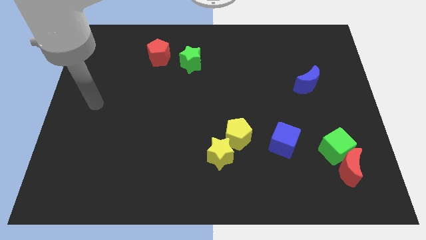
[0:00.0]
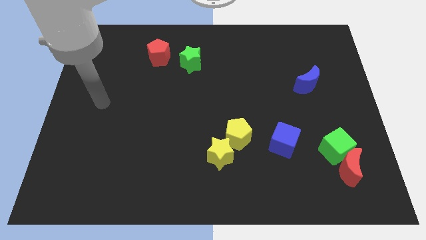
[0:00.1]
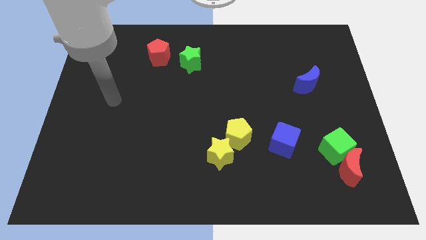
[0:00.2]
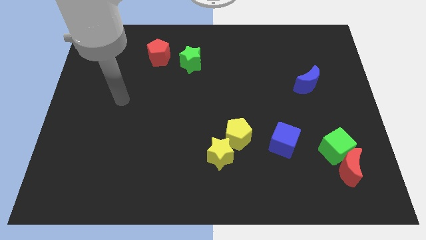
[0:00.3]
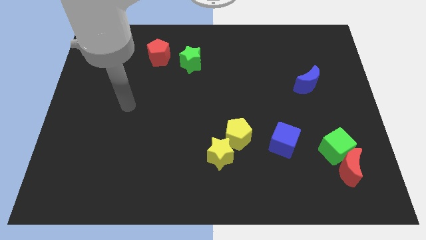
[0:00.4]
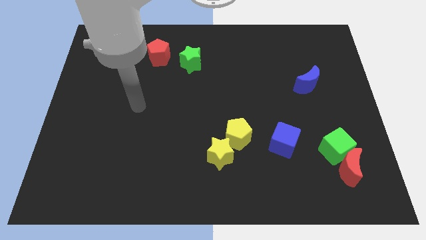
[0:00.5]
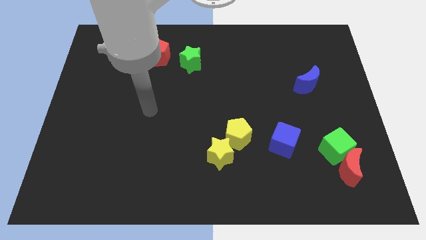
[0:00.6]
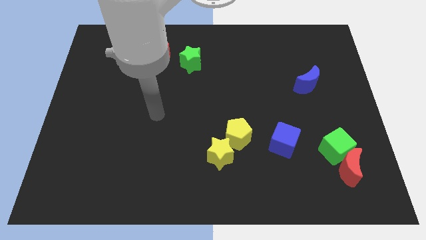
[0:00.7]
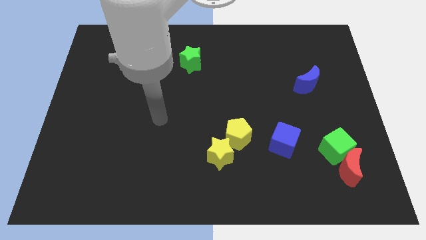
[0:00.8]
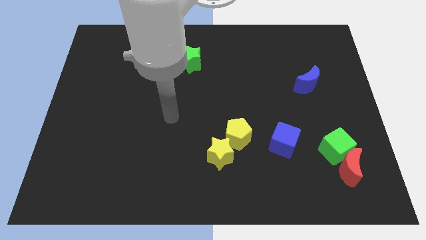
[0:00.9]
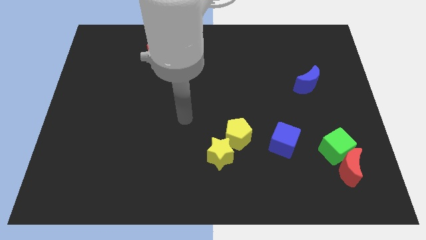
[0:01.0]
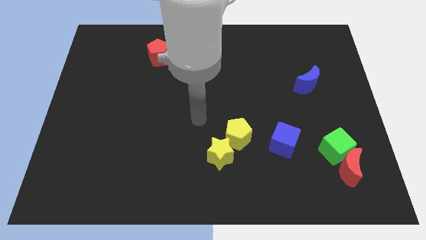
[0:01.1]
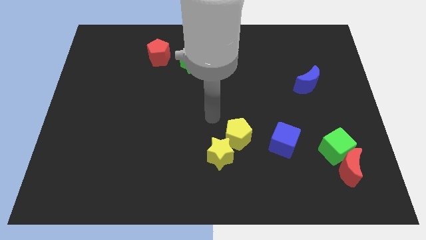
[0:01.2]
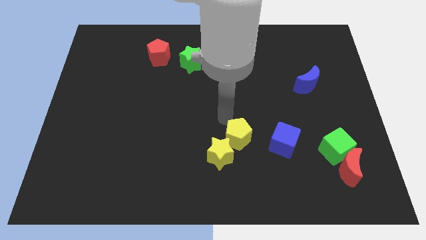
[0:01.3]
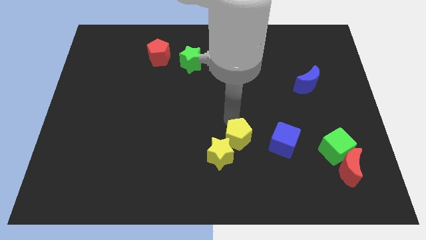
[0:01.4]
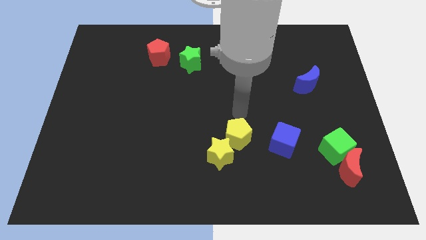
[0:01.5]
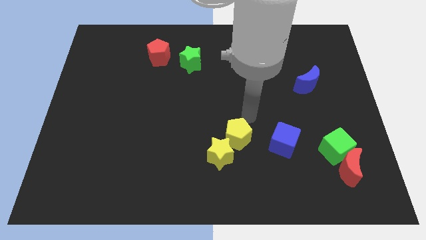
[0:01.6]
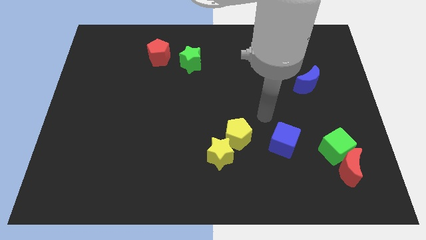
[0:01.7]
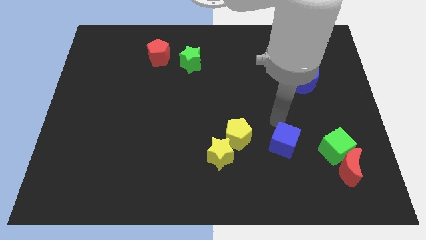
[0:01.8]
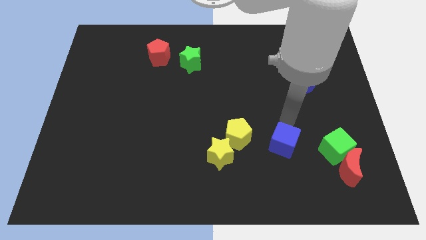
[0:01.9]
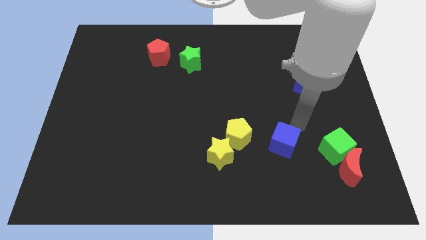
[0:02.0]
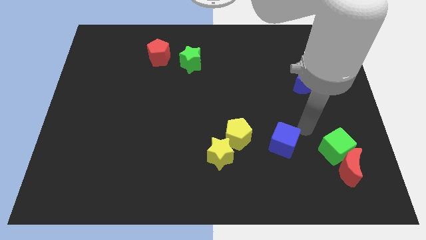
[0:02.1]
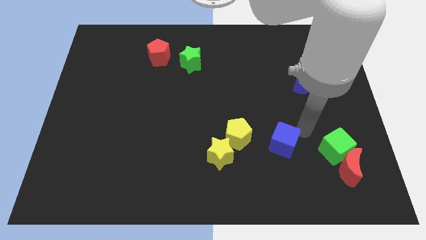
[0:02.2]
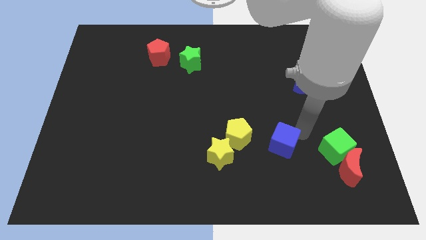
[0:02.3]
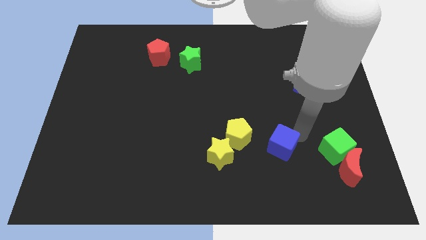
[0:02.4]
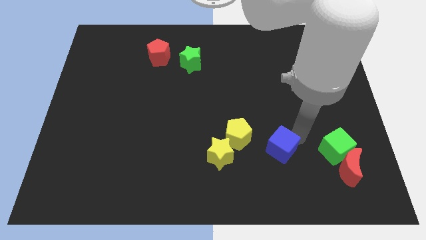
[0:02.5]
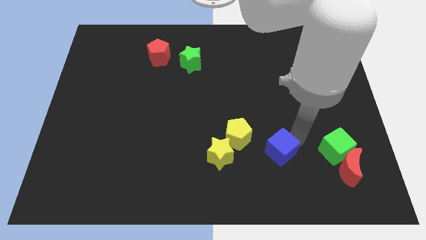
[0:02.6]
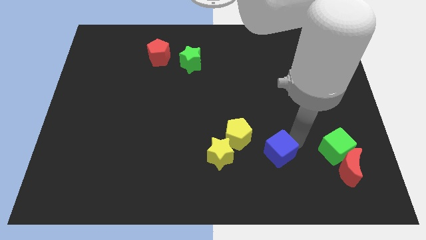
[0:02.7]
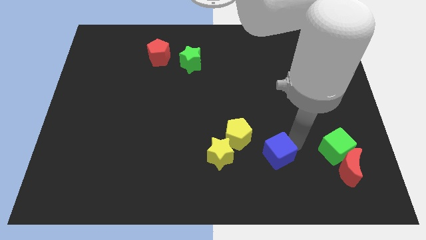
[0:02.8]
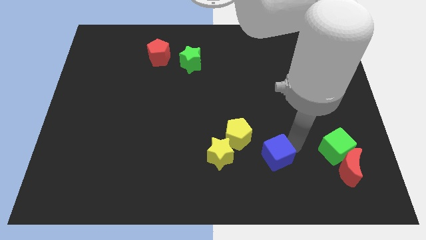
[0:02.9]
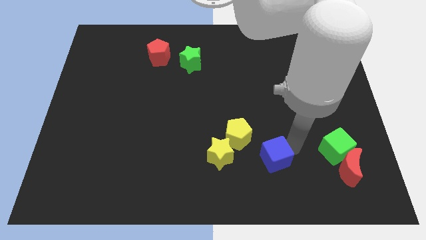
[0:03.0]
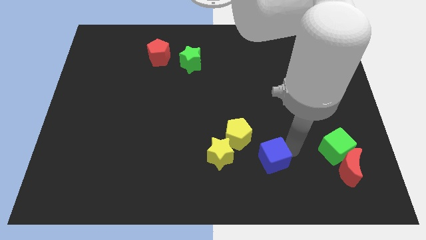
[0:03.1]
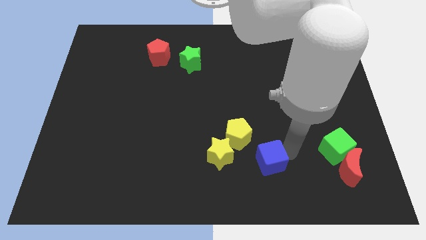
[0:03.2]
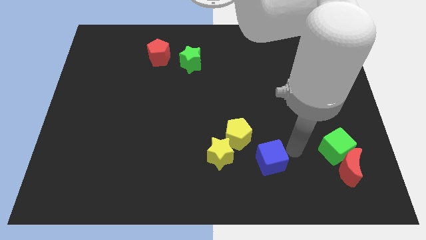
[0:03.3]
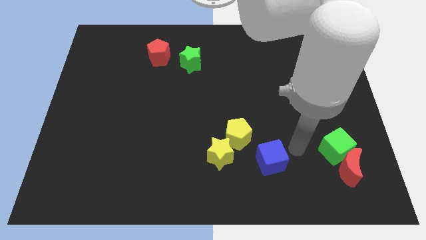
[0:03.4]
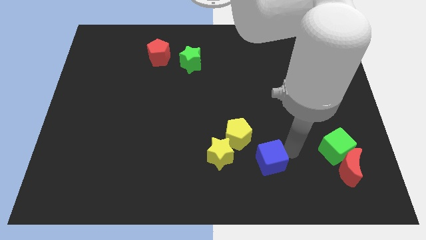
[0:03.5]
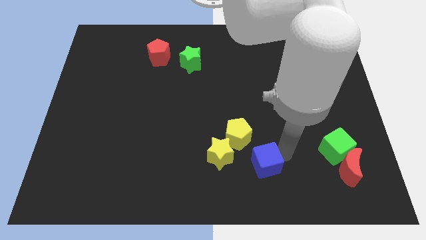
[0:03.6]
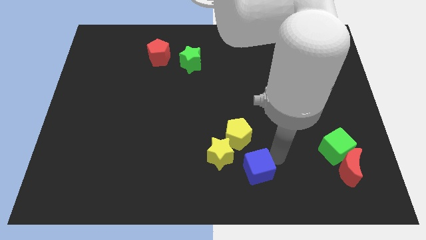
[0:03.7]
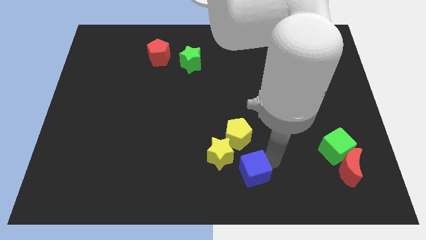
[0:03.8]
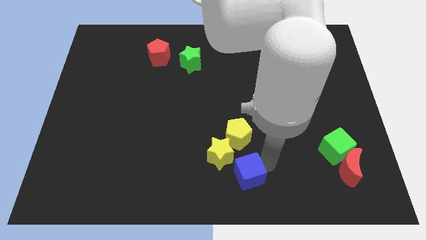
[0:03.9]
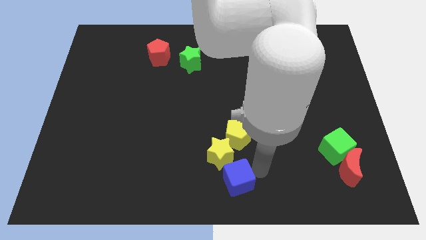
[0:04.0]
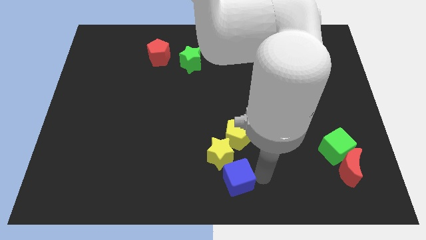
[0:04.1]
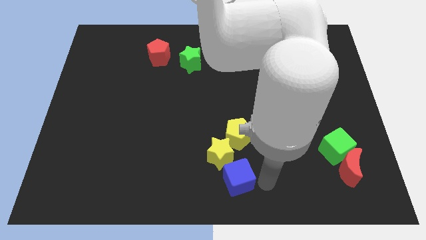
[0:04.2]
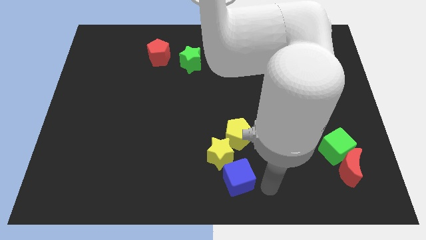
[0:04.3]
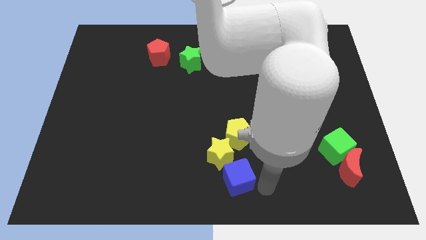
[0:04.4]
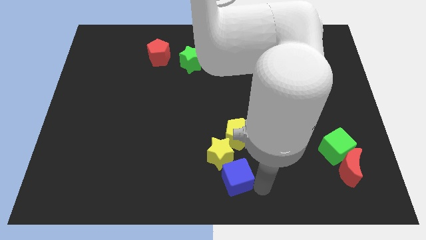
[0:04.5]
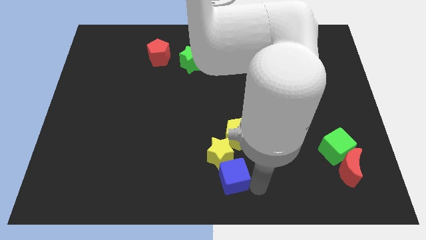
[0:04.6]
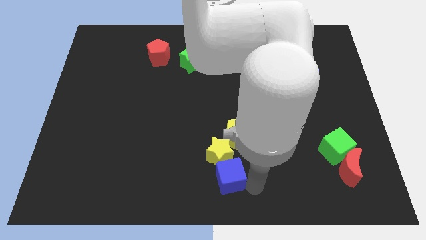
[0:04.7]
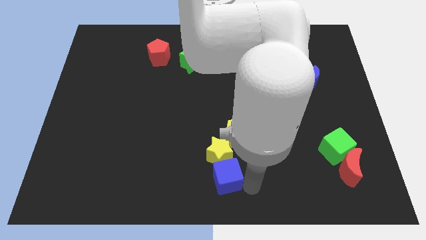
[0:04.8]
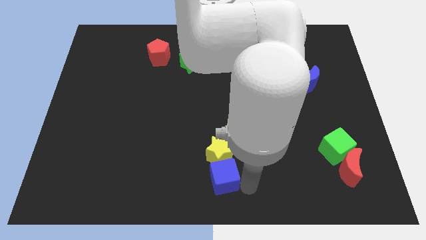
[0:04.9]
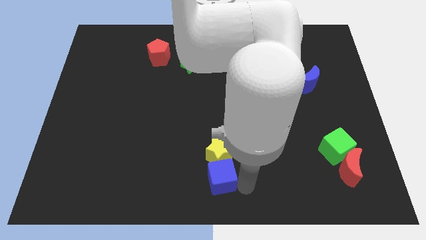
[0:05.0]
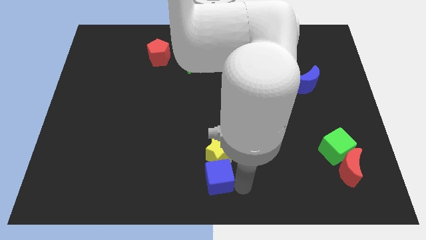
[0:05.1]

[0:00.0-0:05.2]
put the blue cube diagonally down and to the left of the yellow pentagon

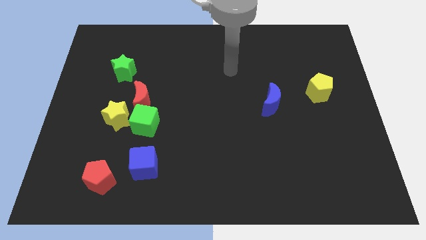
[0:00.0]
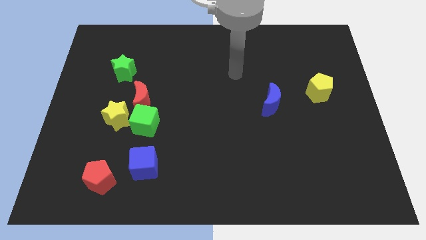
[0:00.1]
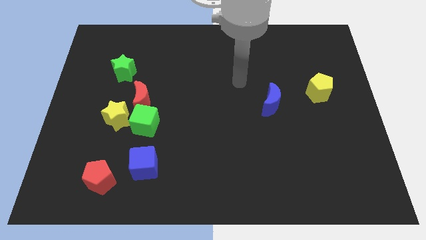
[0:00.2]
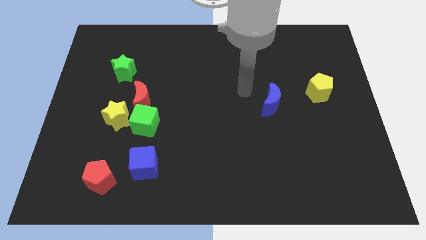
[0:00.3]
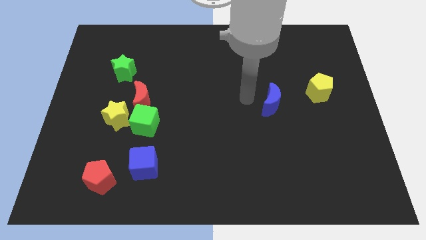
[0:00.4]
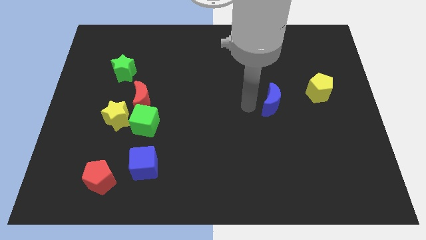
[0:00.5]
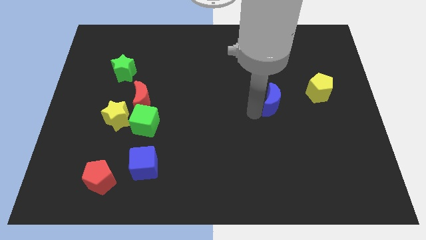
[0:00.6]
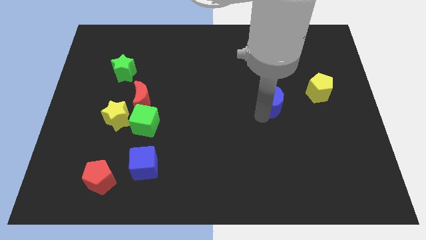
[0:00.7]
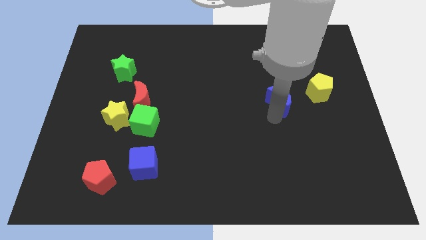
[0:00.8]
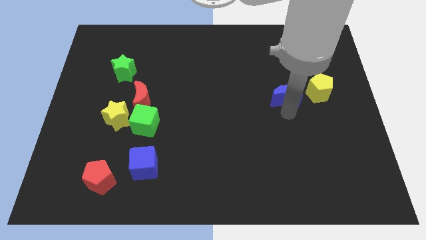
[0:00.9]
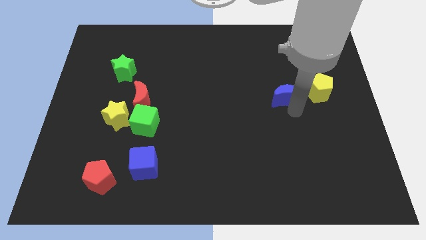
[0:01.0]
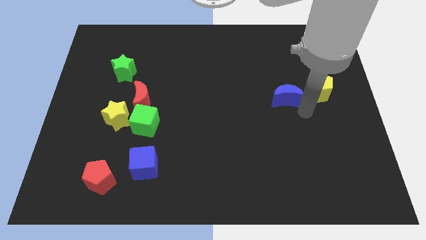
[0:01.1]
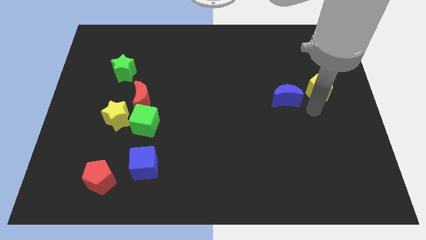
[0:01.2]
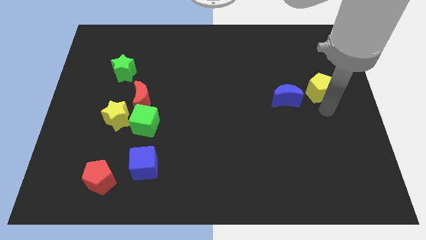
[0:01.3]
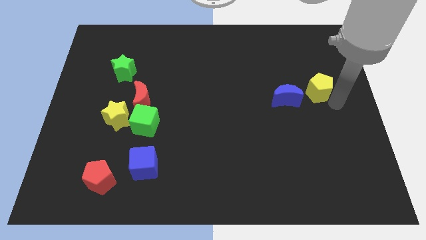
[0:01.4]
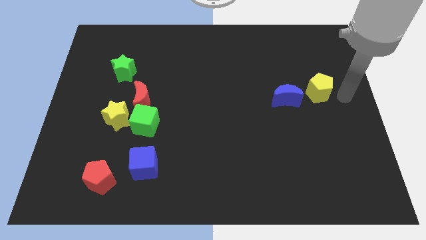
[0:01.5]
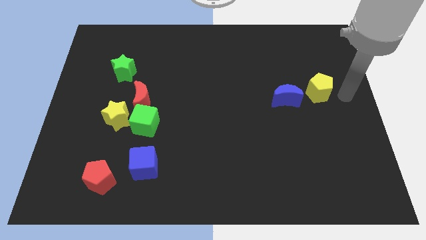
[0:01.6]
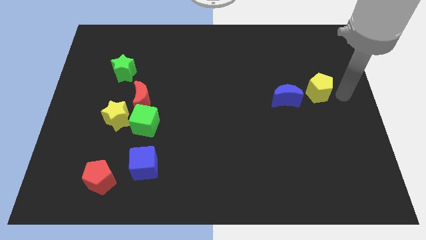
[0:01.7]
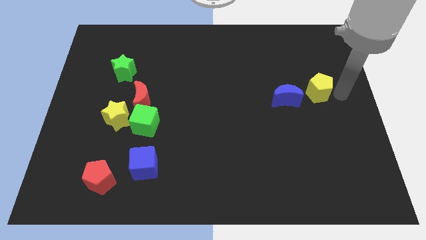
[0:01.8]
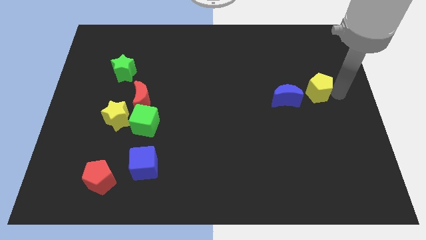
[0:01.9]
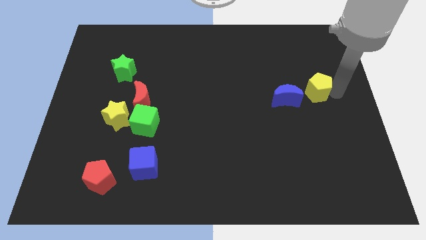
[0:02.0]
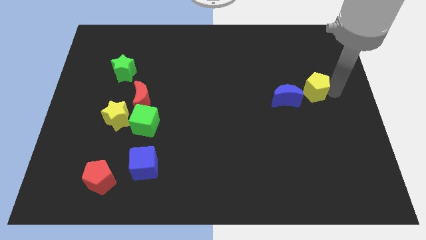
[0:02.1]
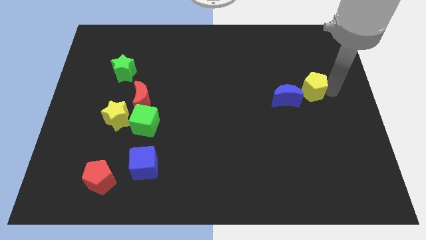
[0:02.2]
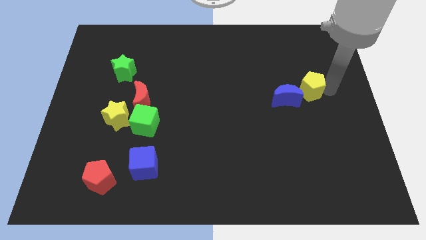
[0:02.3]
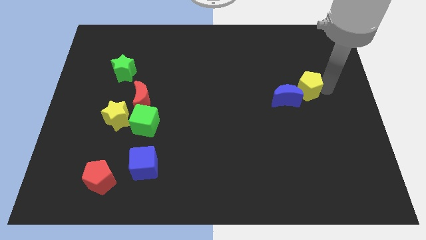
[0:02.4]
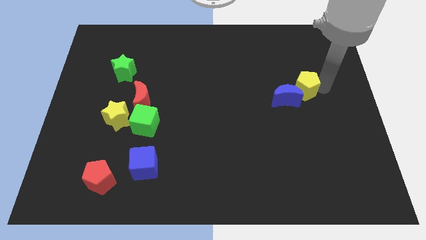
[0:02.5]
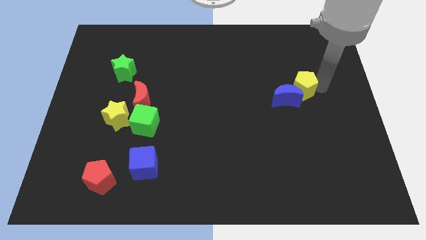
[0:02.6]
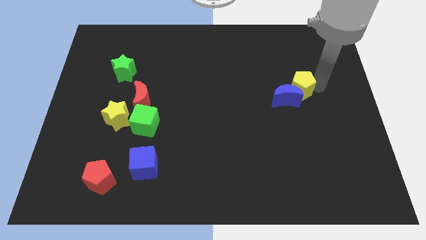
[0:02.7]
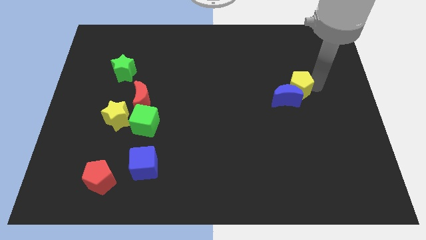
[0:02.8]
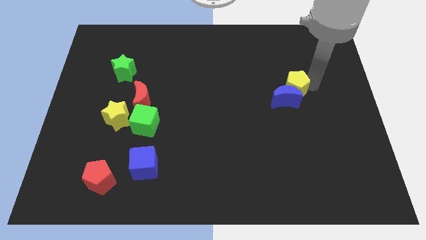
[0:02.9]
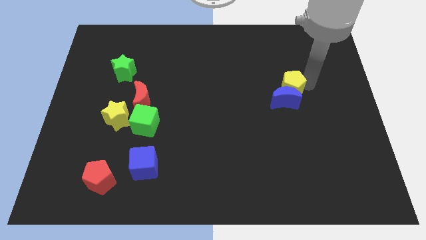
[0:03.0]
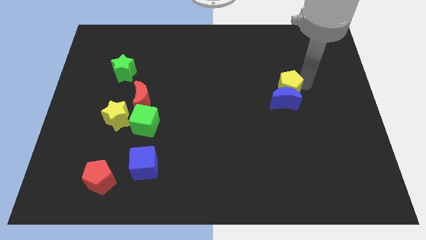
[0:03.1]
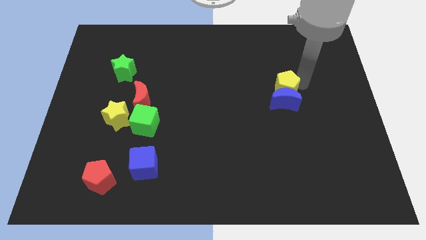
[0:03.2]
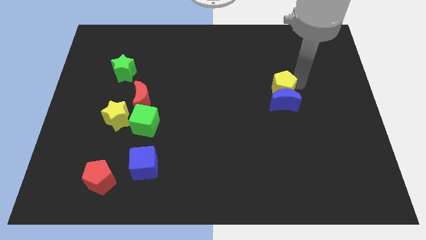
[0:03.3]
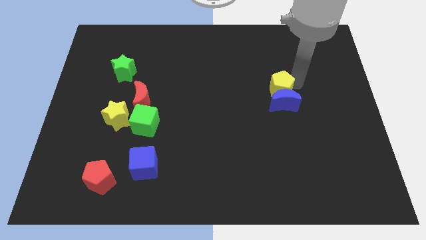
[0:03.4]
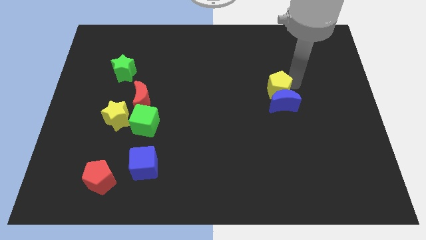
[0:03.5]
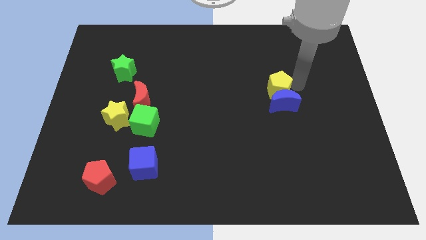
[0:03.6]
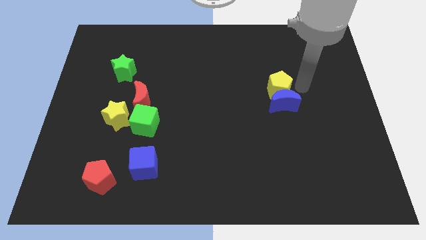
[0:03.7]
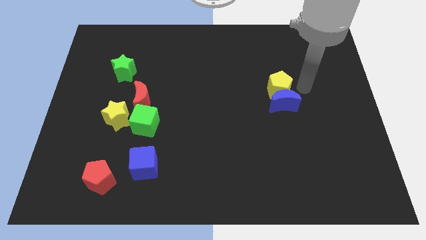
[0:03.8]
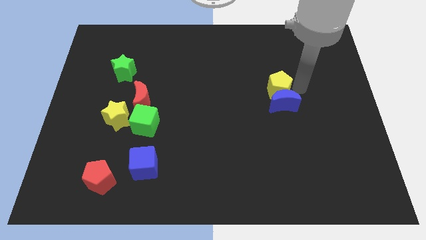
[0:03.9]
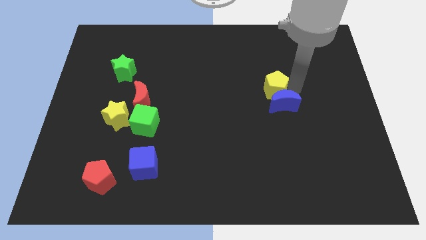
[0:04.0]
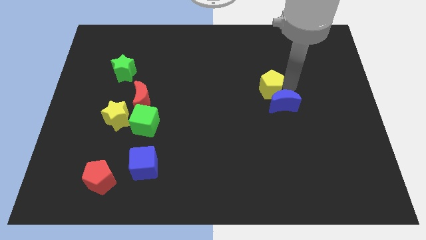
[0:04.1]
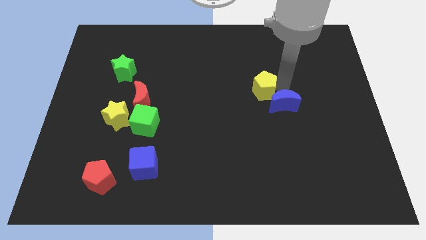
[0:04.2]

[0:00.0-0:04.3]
move the yellow pentagon to the left side of the blue moon
